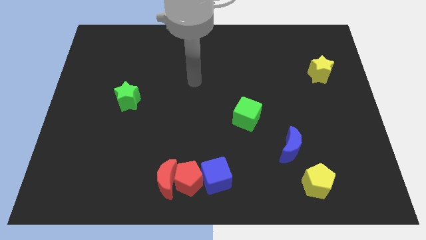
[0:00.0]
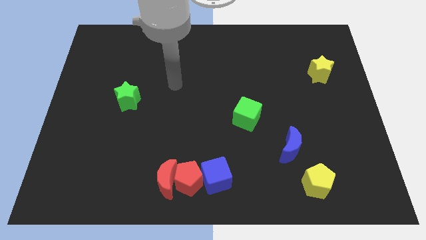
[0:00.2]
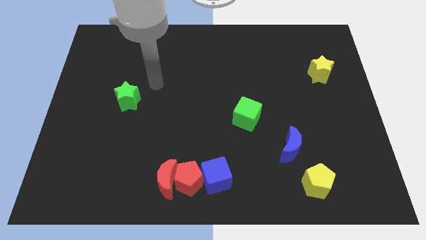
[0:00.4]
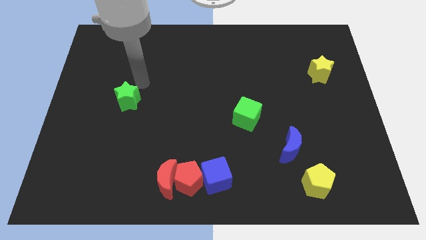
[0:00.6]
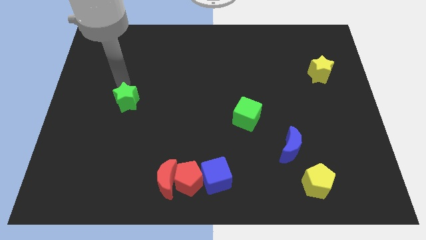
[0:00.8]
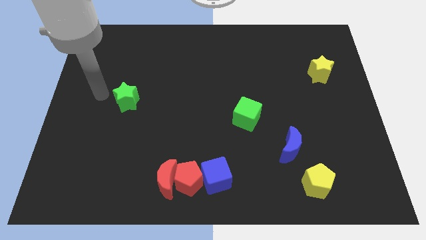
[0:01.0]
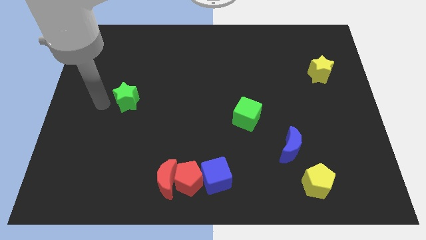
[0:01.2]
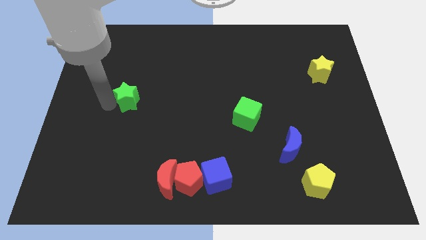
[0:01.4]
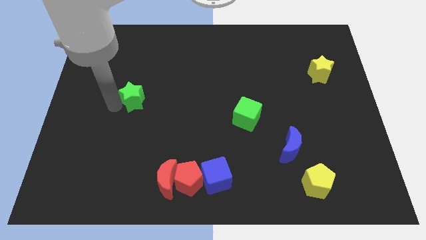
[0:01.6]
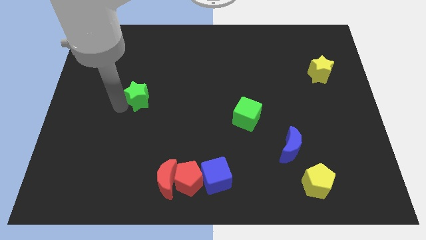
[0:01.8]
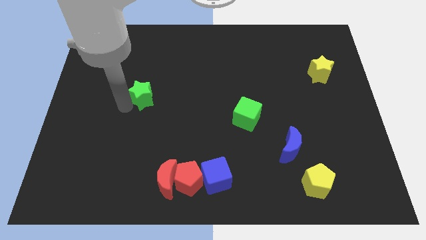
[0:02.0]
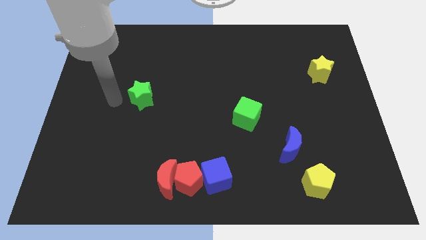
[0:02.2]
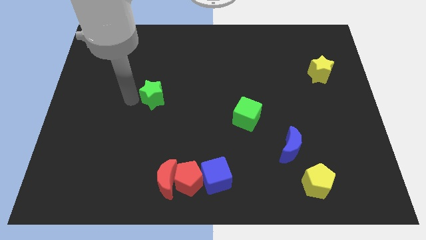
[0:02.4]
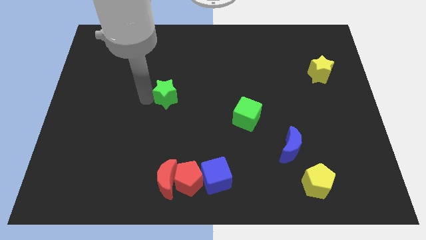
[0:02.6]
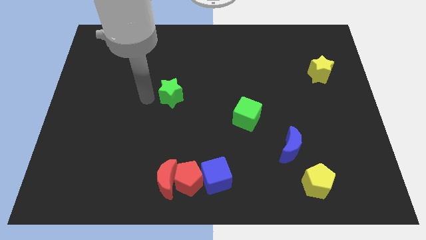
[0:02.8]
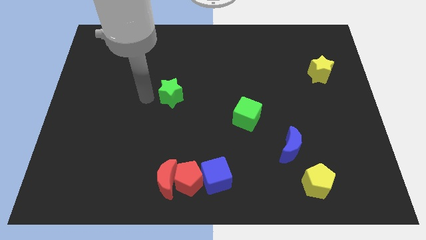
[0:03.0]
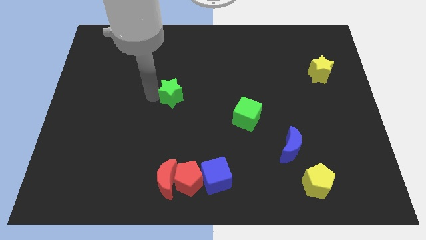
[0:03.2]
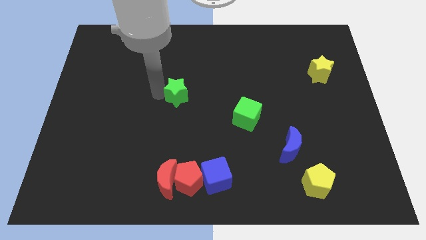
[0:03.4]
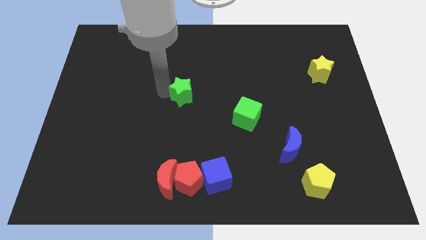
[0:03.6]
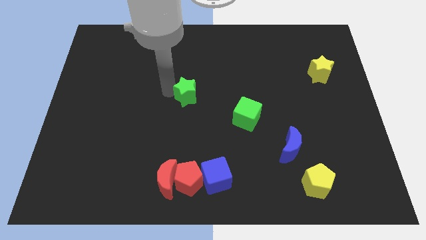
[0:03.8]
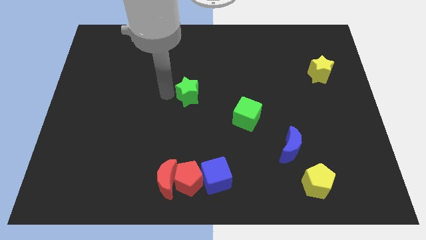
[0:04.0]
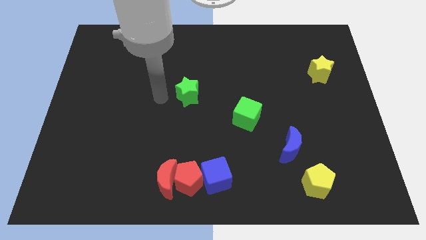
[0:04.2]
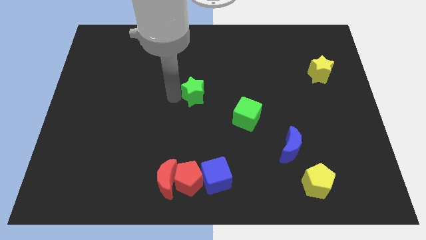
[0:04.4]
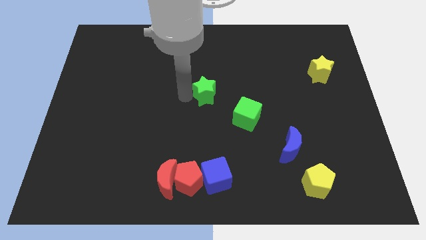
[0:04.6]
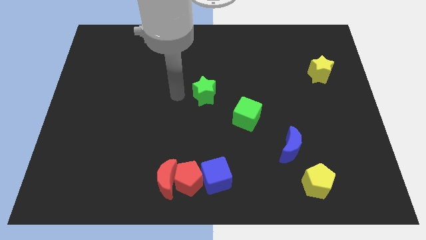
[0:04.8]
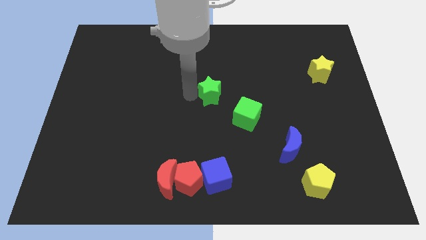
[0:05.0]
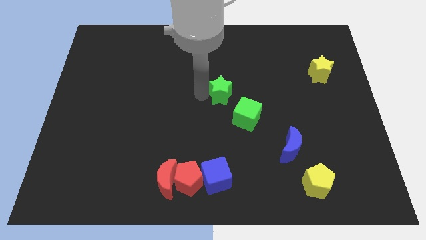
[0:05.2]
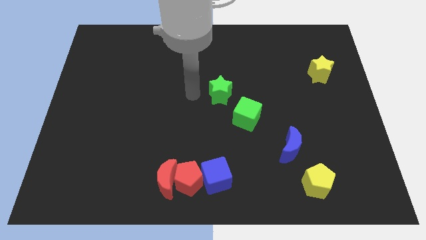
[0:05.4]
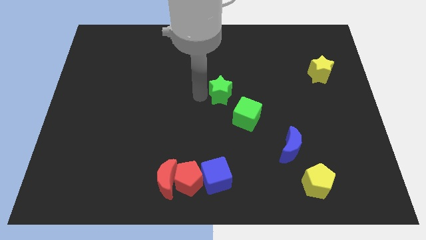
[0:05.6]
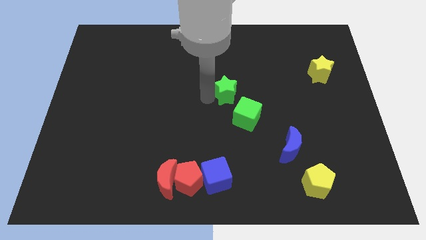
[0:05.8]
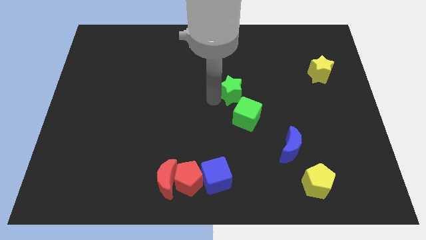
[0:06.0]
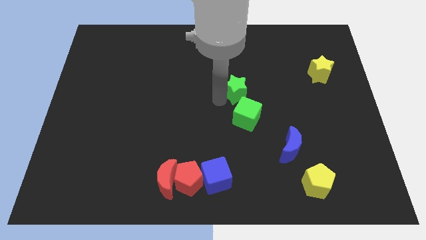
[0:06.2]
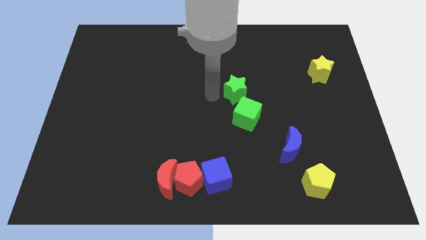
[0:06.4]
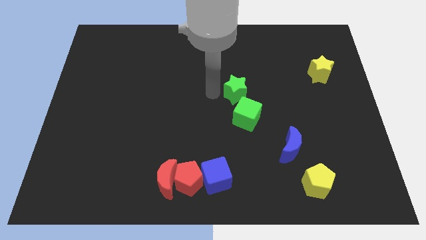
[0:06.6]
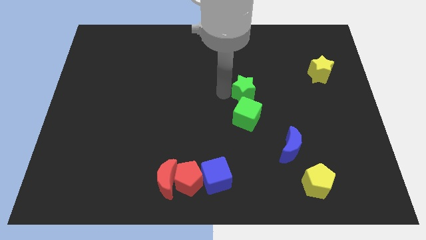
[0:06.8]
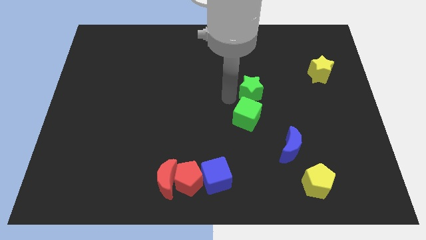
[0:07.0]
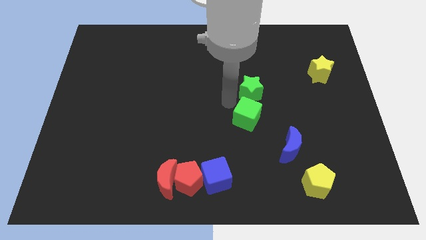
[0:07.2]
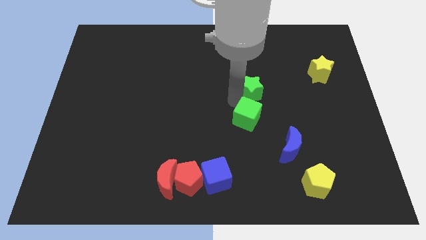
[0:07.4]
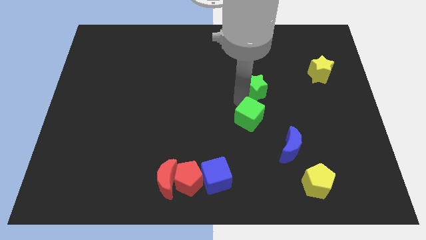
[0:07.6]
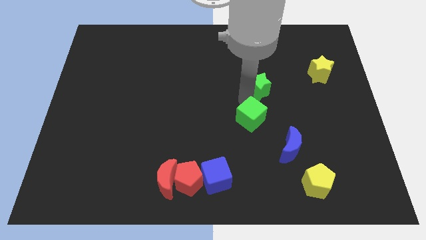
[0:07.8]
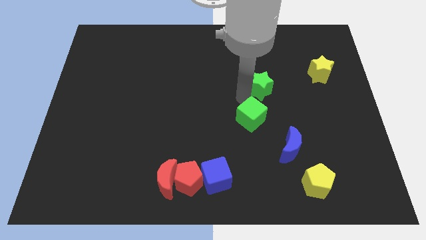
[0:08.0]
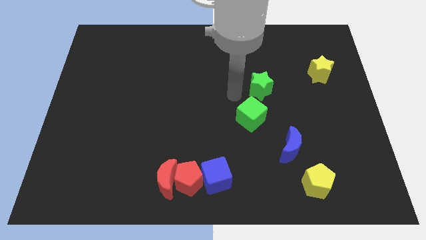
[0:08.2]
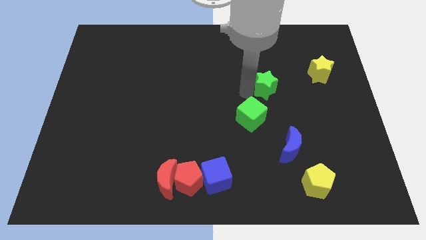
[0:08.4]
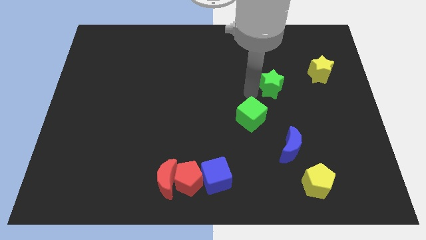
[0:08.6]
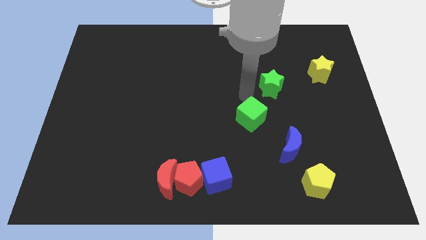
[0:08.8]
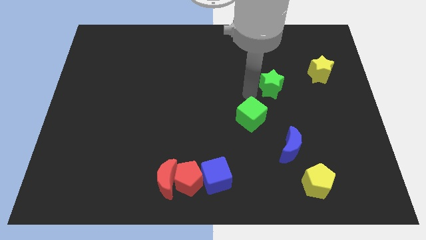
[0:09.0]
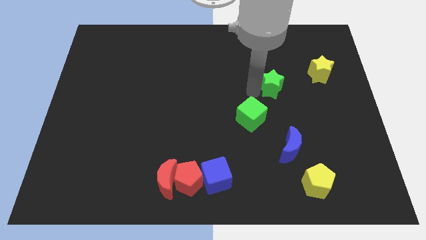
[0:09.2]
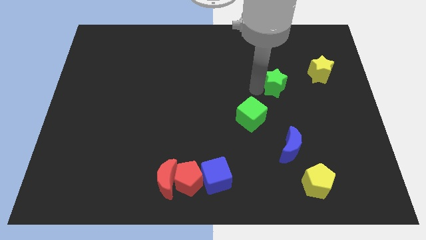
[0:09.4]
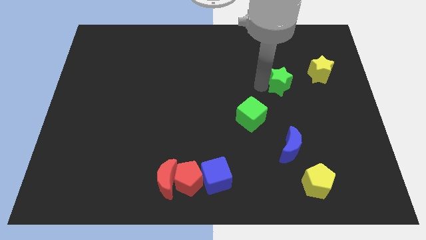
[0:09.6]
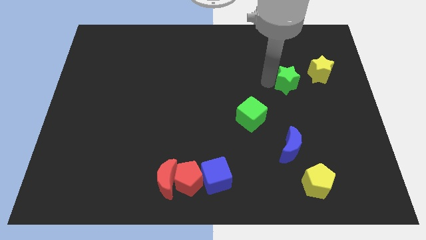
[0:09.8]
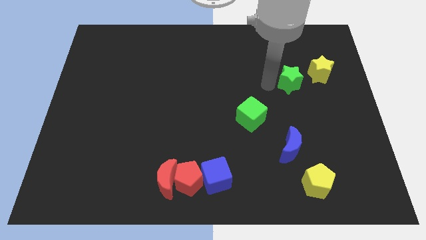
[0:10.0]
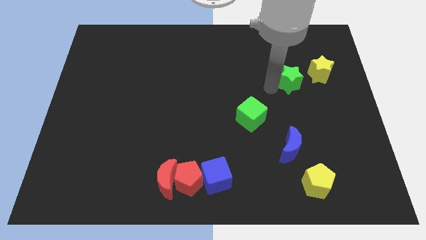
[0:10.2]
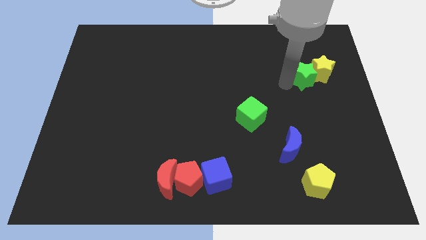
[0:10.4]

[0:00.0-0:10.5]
put the green star towards the yellow star
